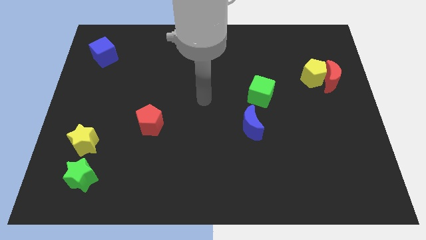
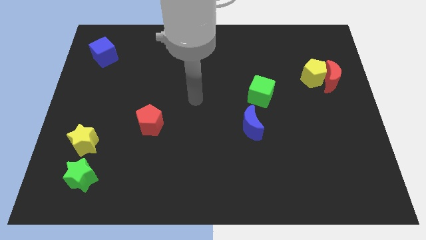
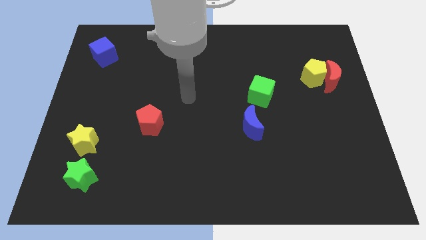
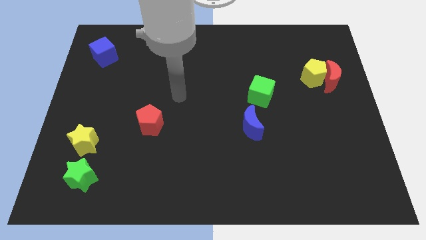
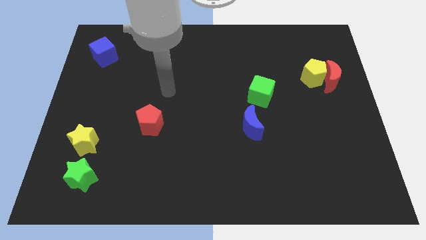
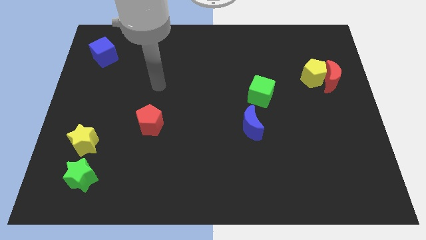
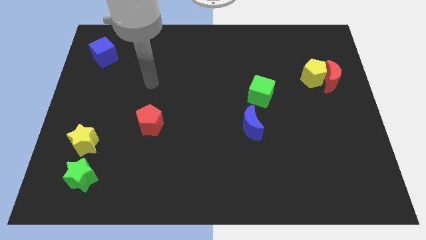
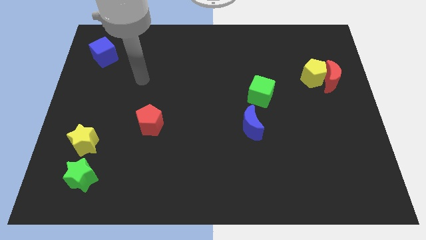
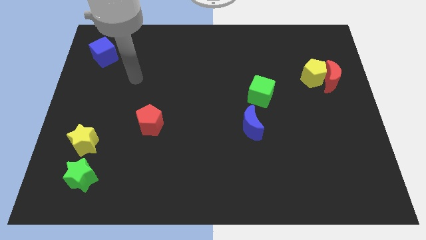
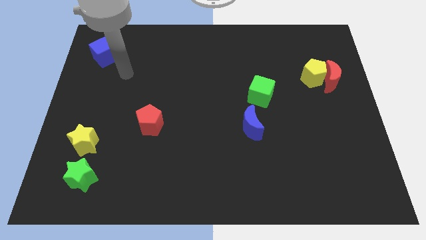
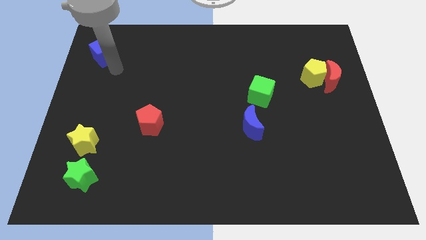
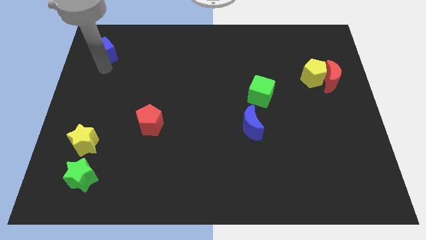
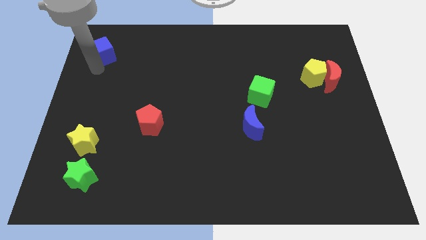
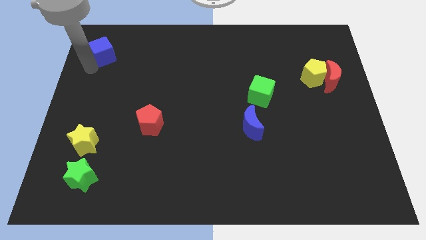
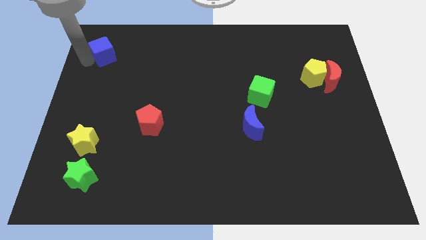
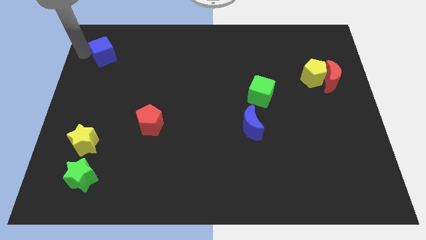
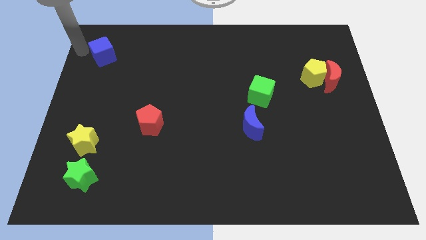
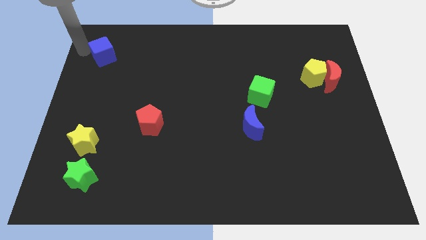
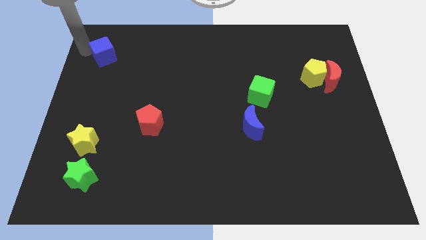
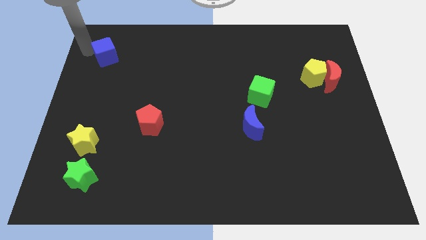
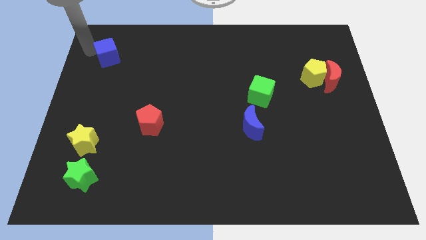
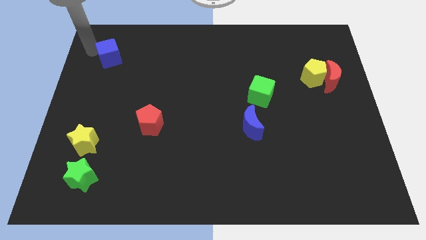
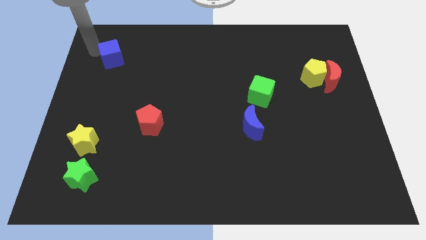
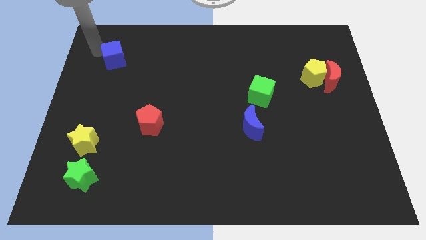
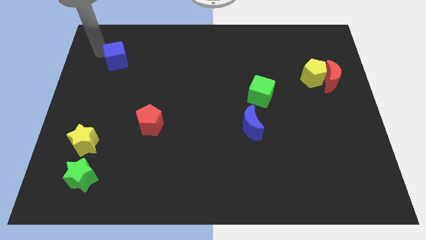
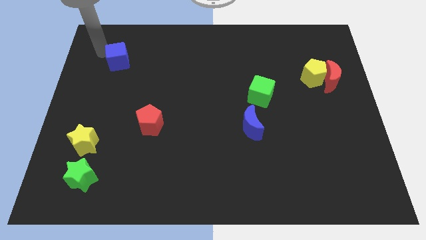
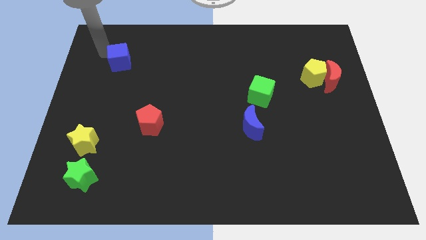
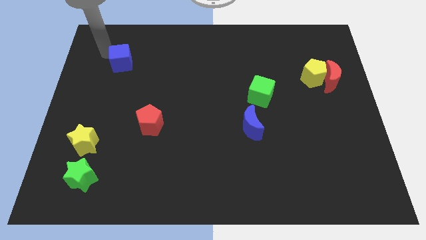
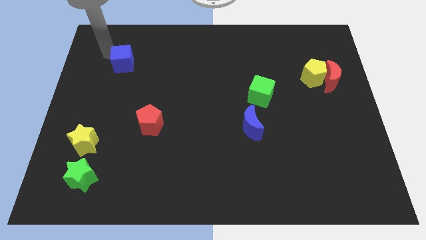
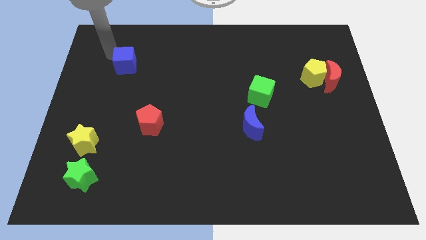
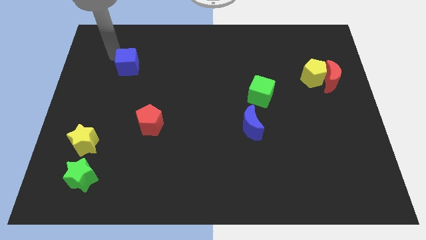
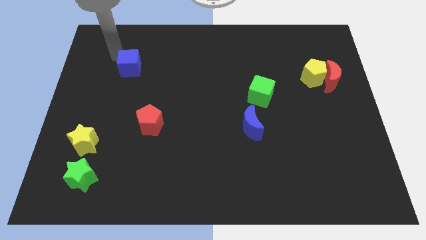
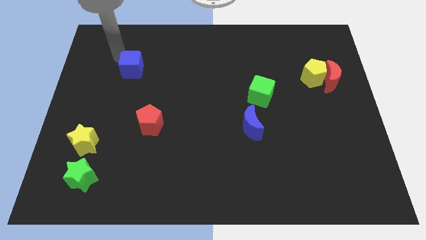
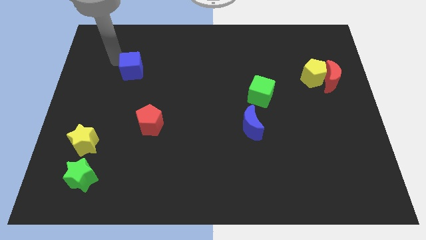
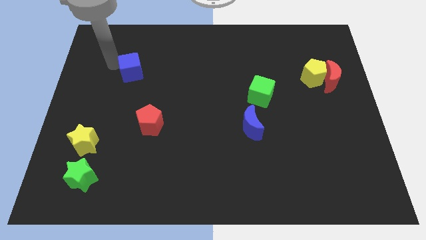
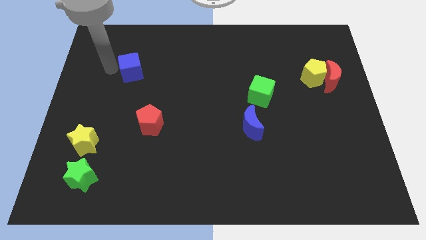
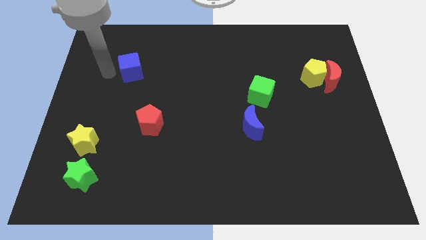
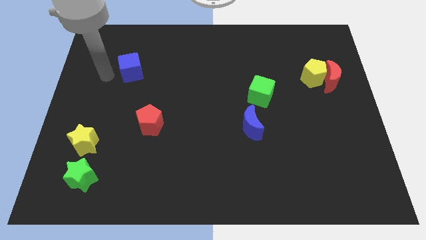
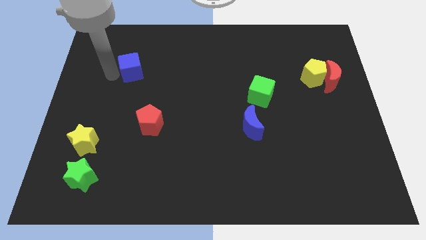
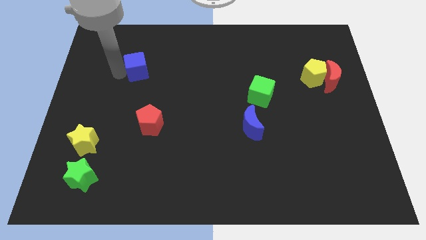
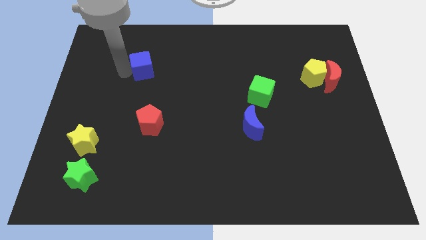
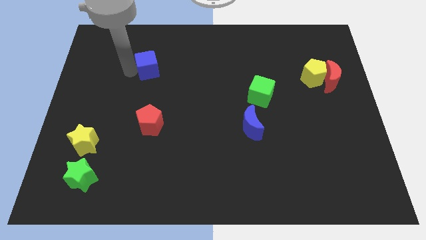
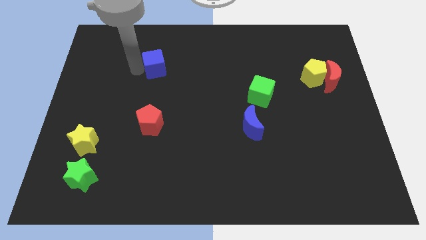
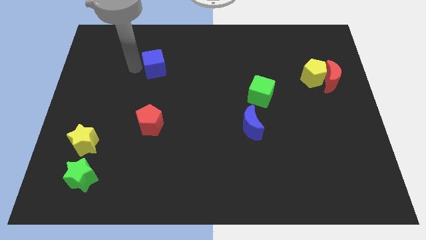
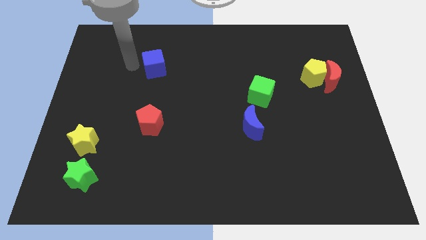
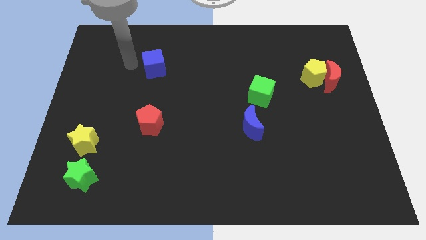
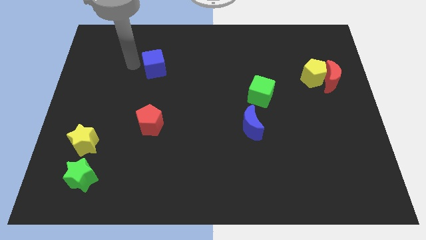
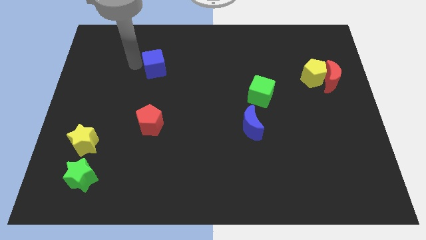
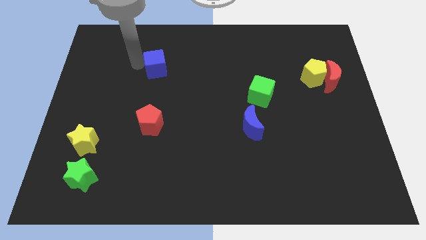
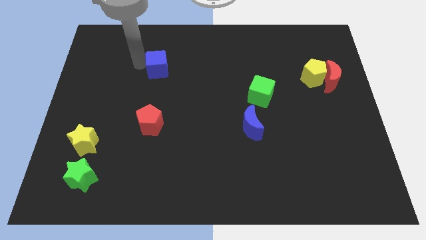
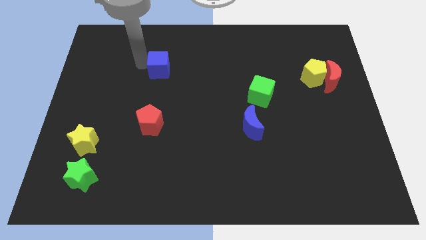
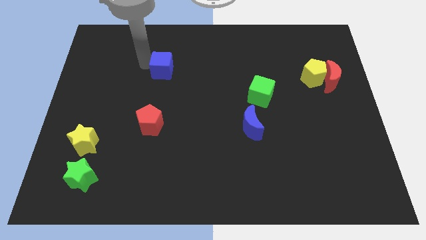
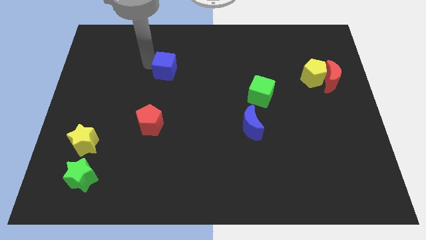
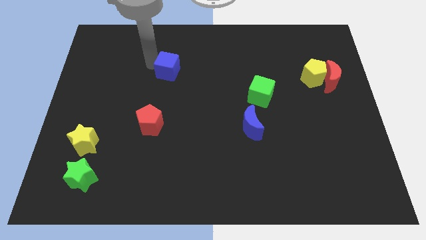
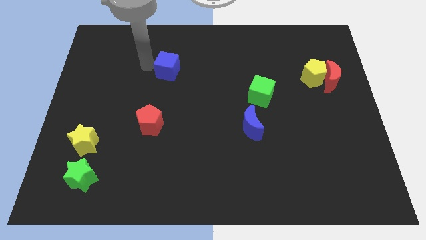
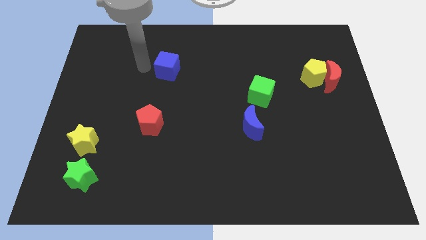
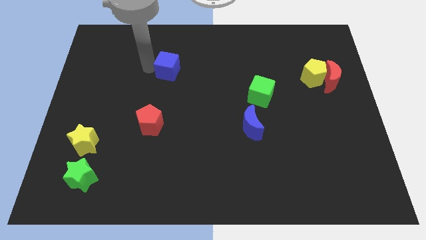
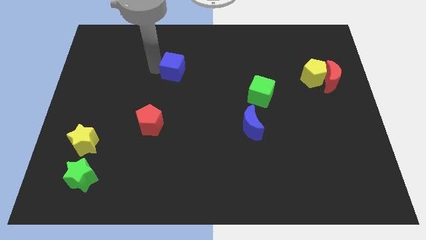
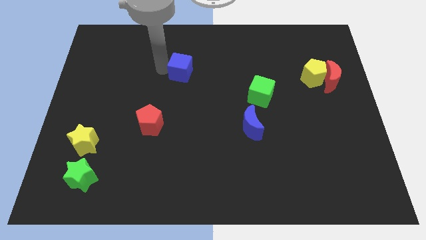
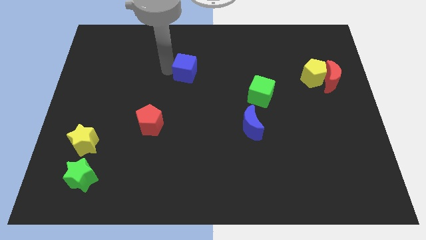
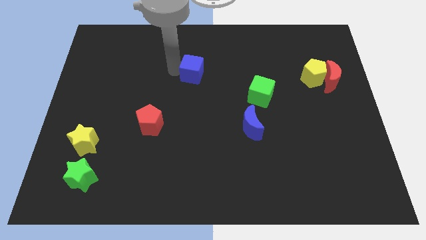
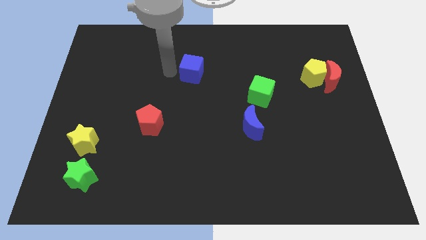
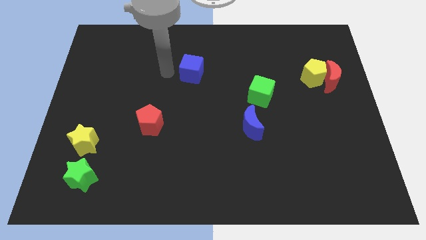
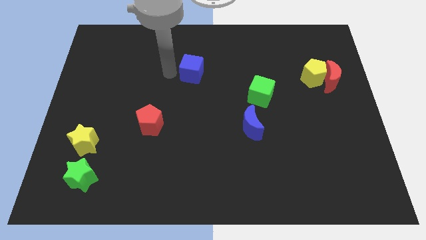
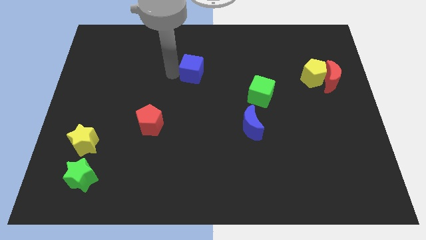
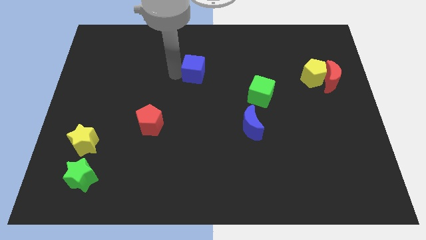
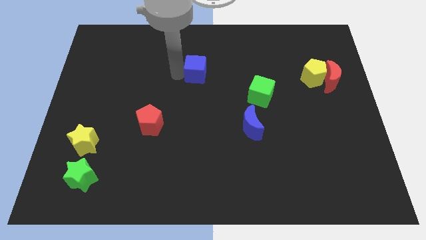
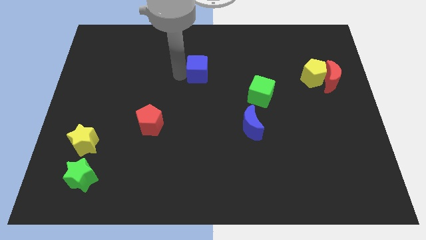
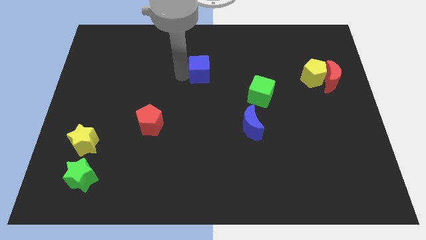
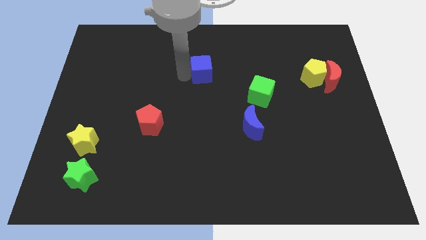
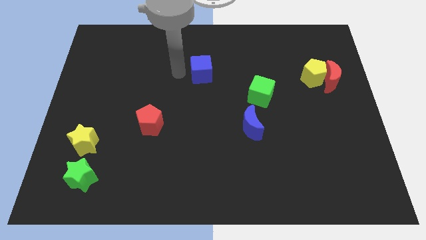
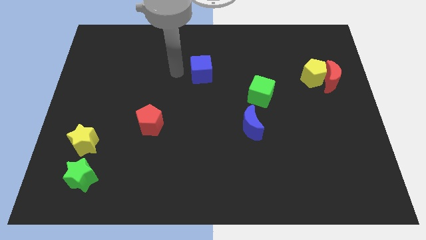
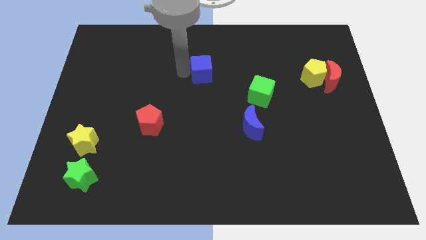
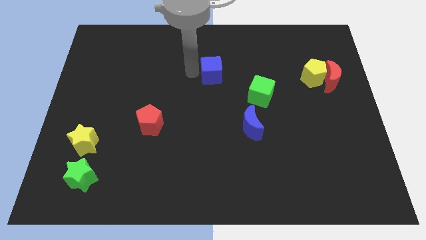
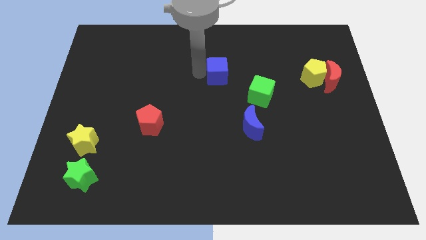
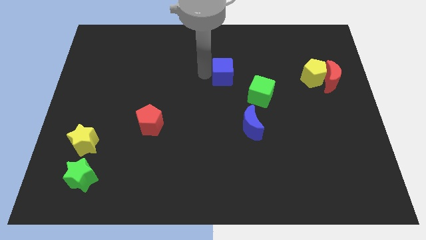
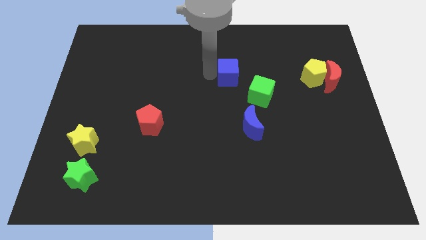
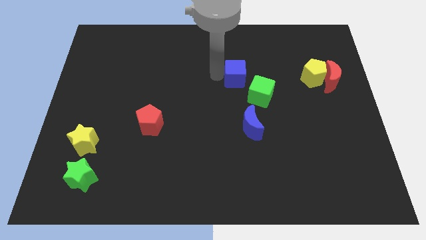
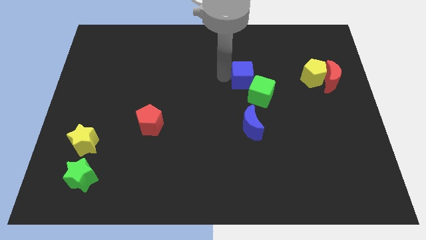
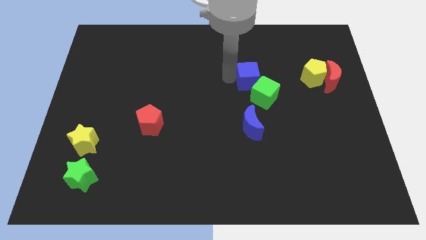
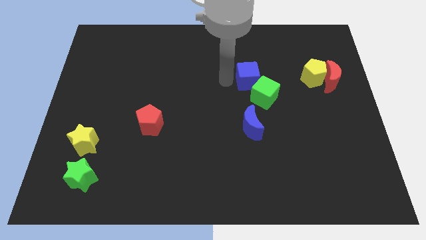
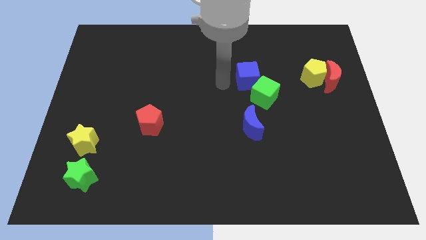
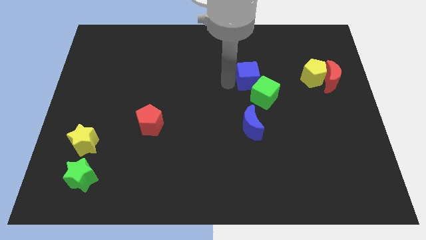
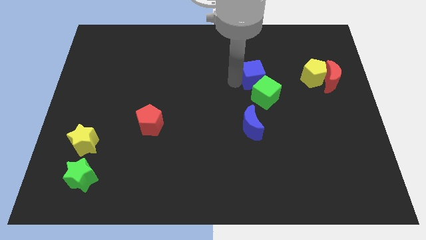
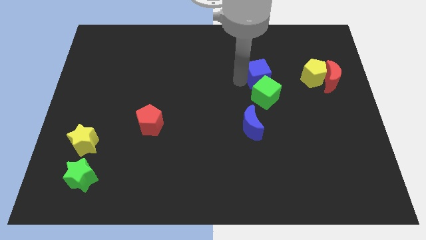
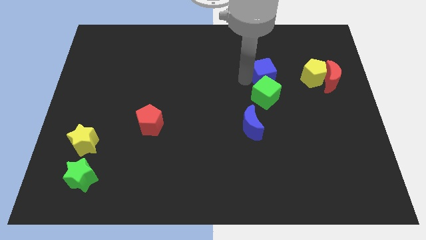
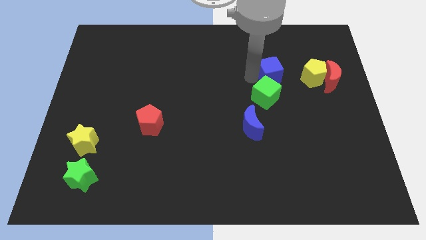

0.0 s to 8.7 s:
push the blue cube just left of the red moon
